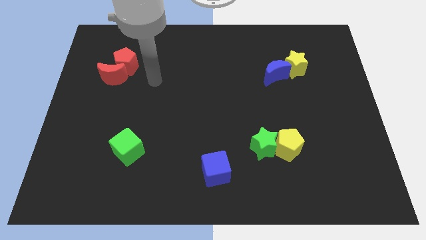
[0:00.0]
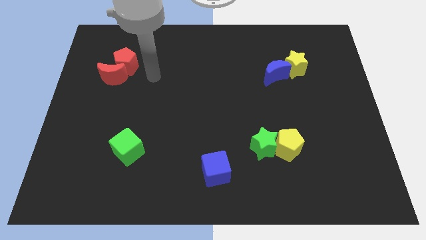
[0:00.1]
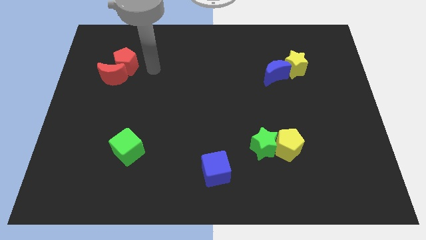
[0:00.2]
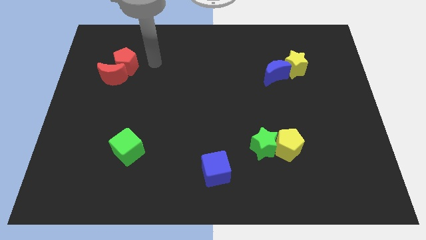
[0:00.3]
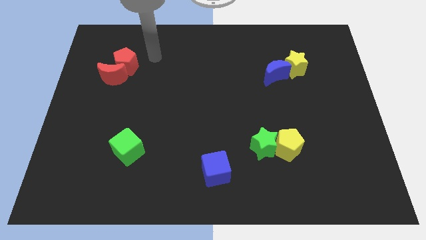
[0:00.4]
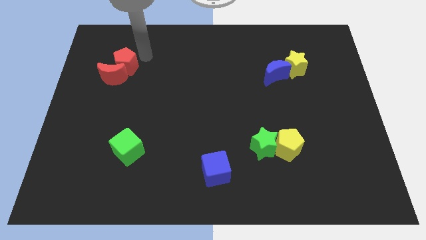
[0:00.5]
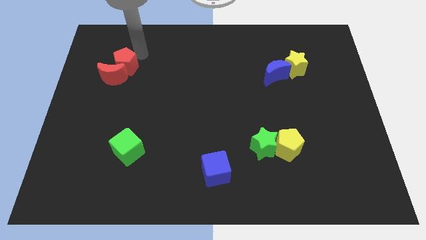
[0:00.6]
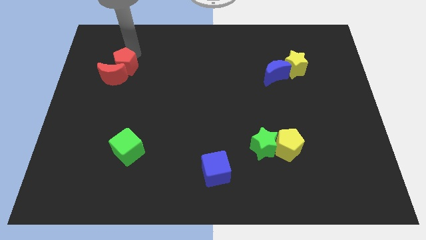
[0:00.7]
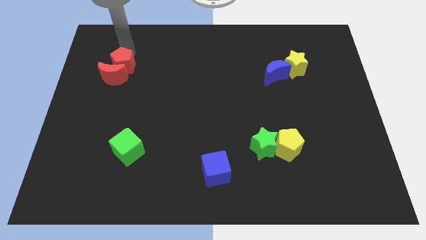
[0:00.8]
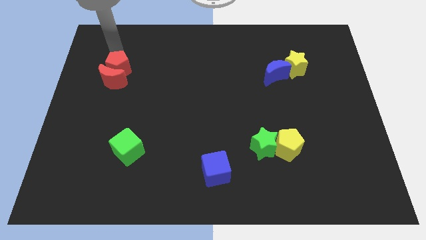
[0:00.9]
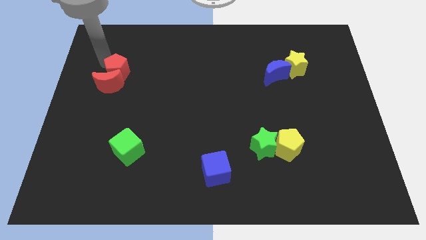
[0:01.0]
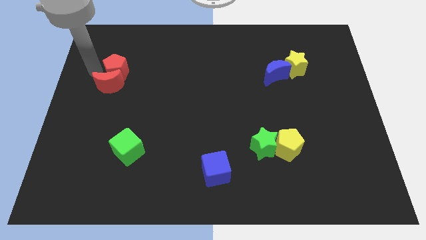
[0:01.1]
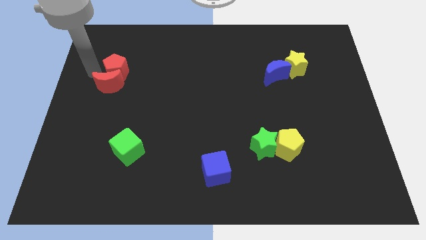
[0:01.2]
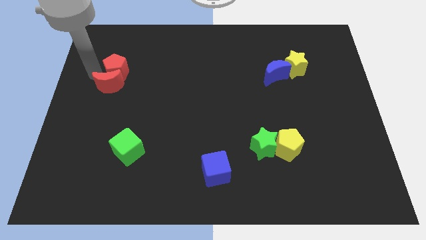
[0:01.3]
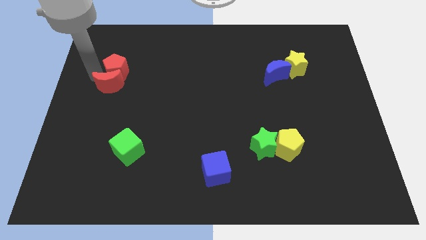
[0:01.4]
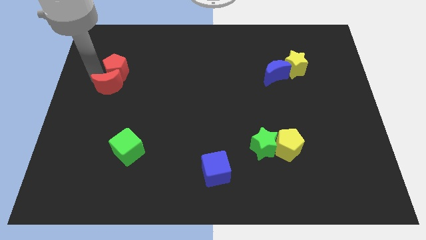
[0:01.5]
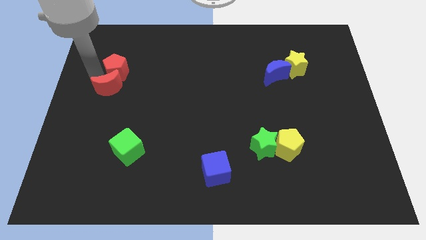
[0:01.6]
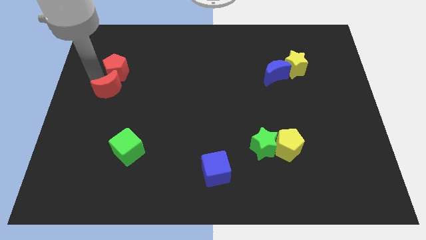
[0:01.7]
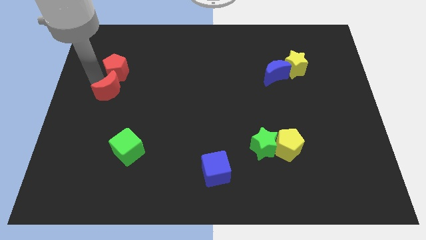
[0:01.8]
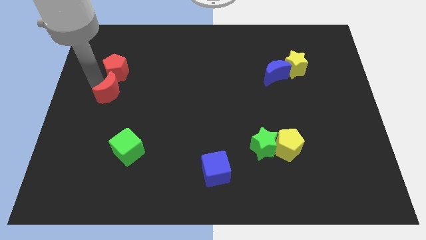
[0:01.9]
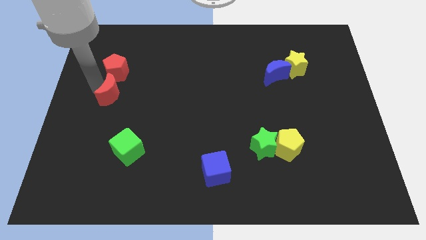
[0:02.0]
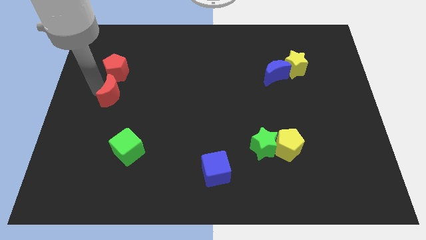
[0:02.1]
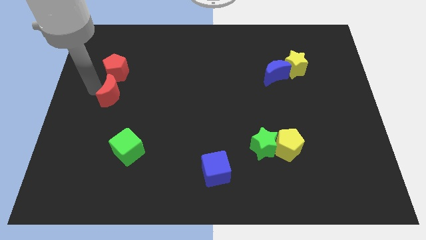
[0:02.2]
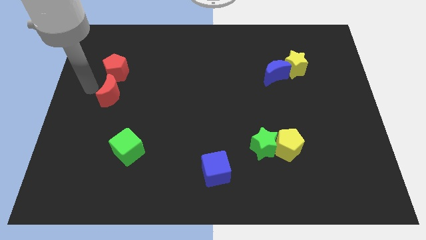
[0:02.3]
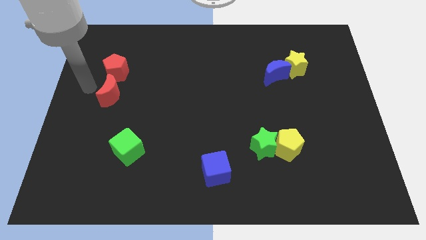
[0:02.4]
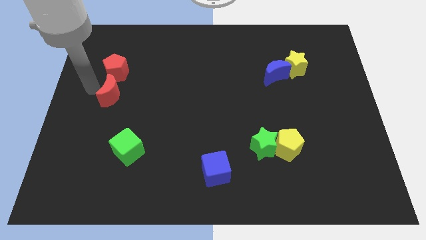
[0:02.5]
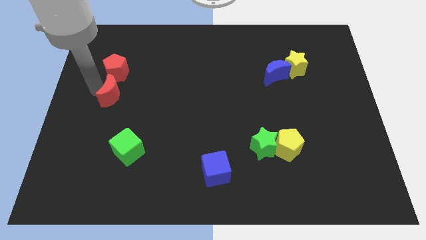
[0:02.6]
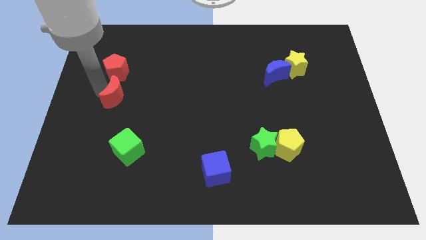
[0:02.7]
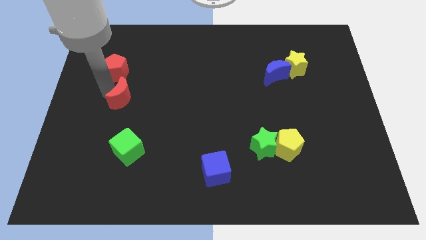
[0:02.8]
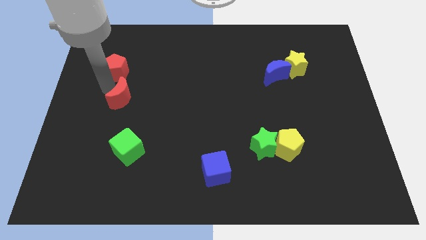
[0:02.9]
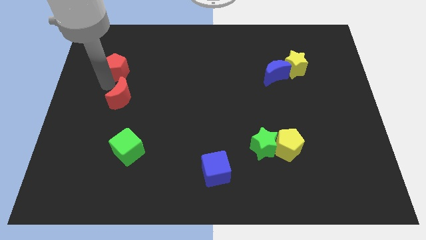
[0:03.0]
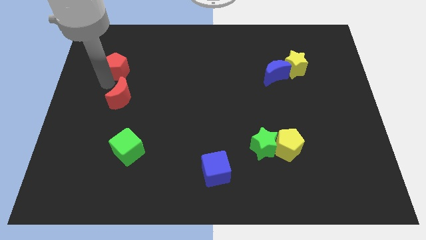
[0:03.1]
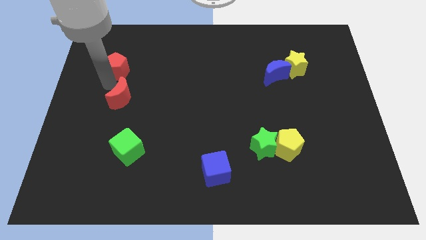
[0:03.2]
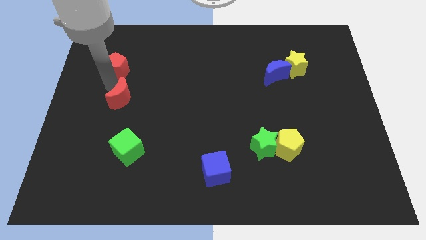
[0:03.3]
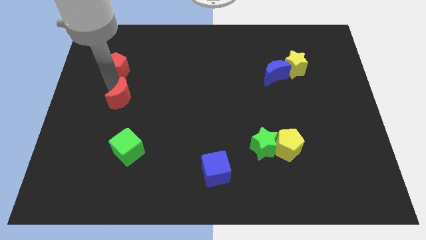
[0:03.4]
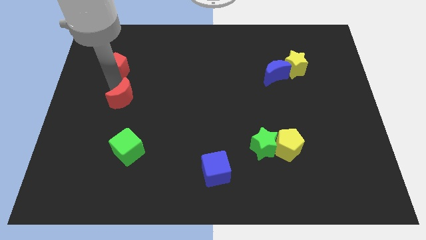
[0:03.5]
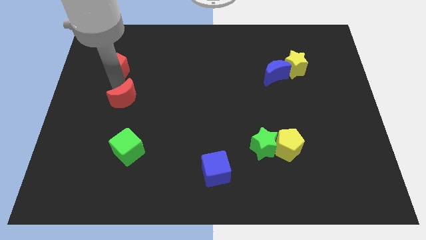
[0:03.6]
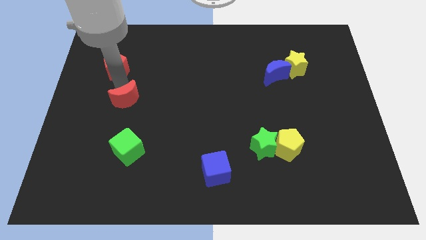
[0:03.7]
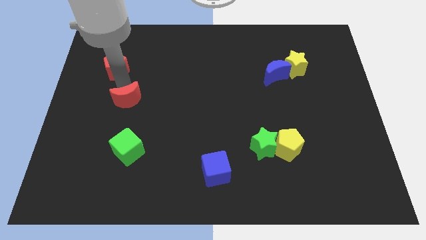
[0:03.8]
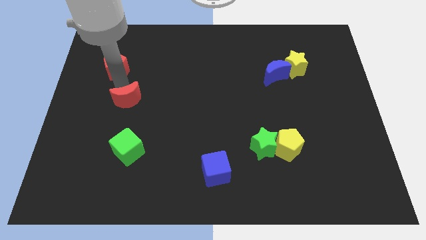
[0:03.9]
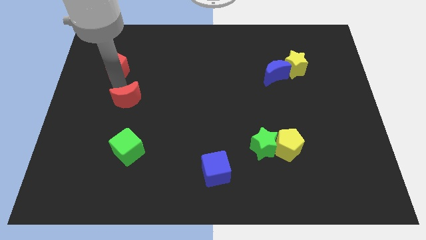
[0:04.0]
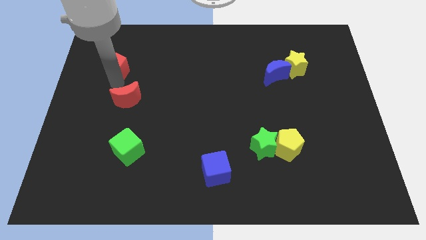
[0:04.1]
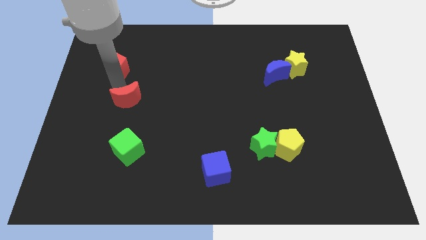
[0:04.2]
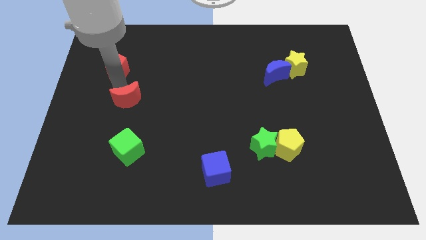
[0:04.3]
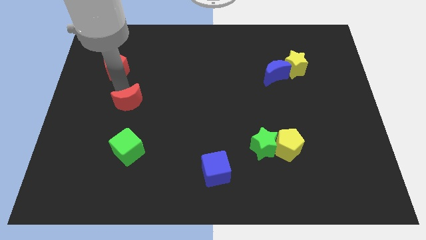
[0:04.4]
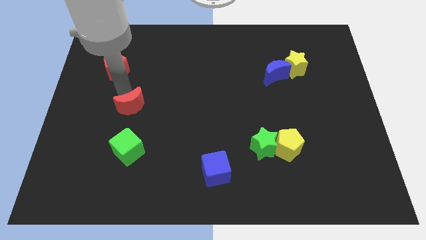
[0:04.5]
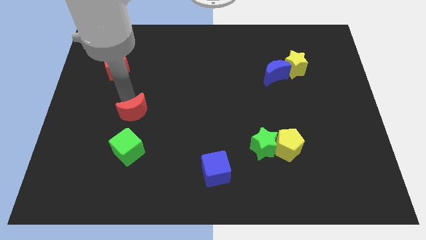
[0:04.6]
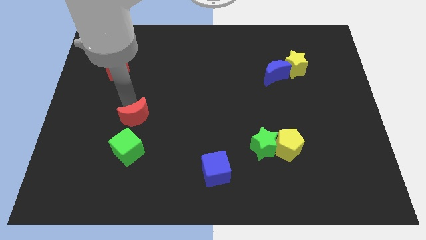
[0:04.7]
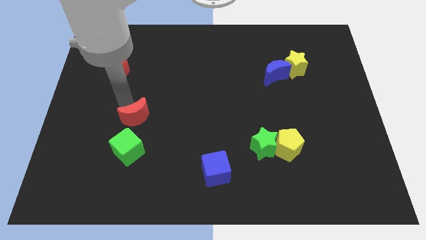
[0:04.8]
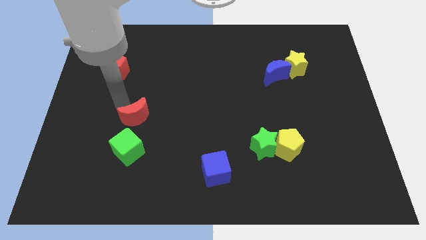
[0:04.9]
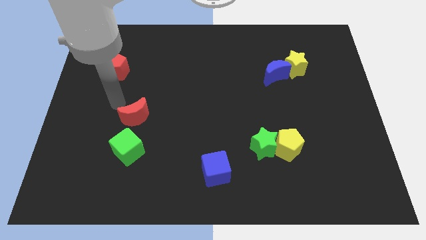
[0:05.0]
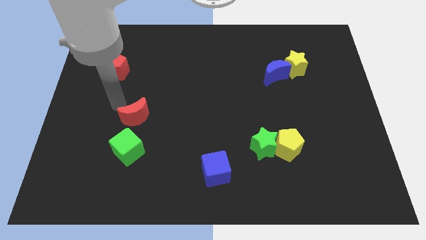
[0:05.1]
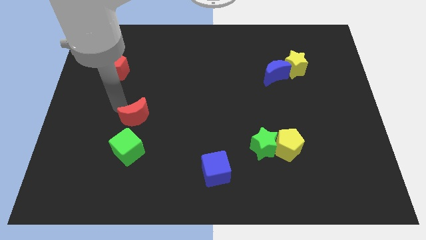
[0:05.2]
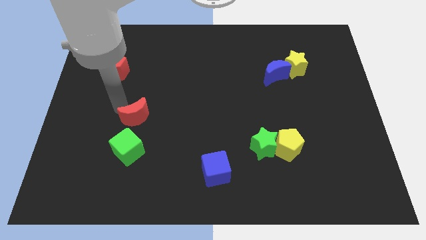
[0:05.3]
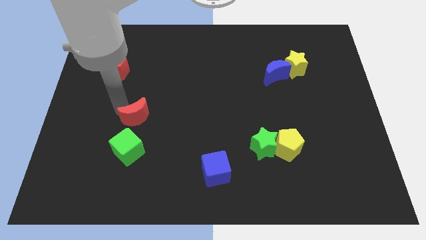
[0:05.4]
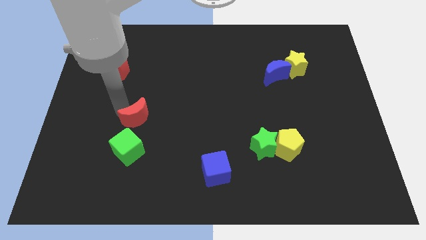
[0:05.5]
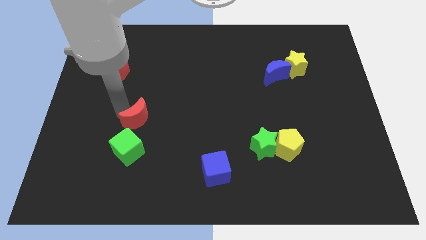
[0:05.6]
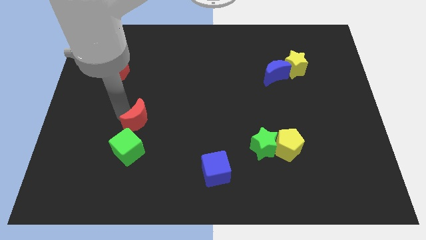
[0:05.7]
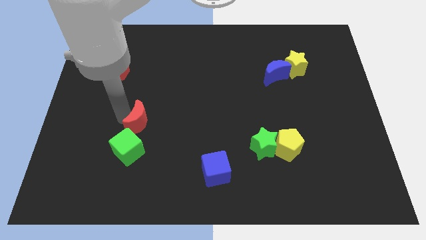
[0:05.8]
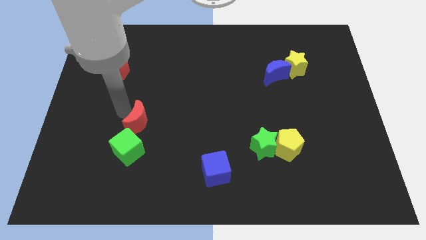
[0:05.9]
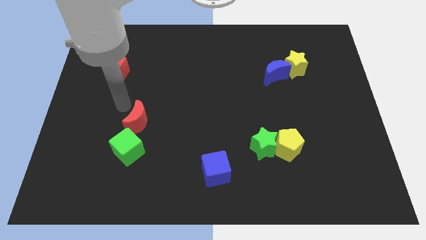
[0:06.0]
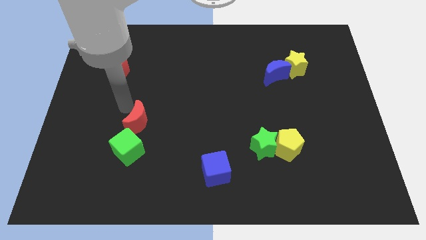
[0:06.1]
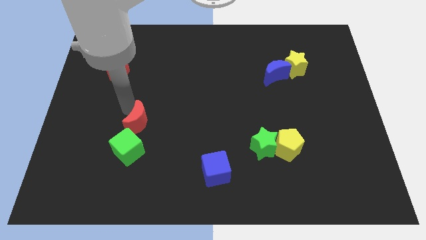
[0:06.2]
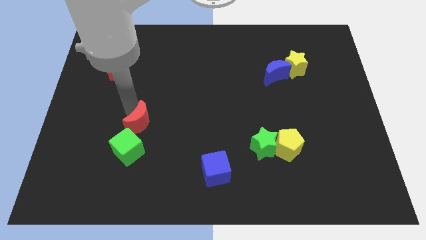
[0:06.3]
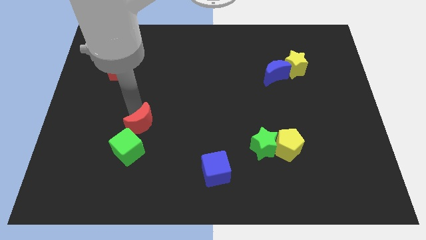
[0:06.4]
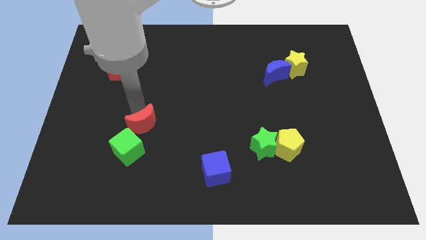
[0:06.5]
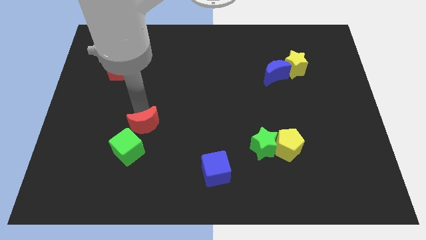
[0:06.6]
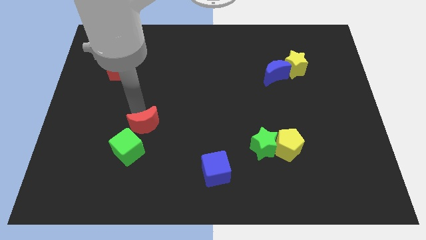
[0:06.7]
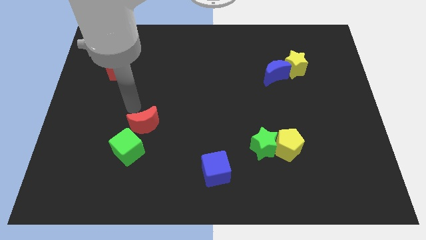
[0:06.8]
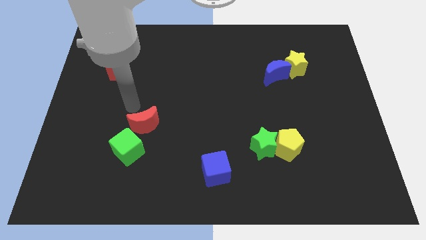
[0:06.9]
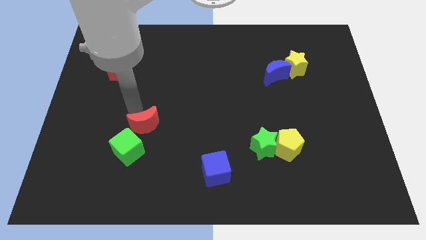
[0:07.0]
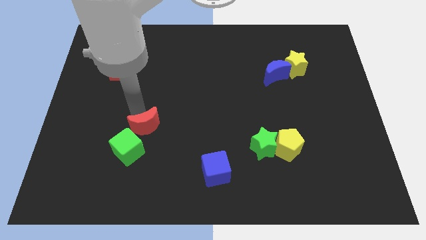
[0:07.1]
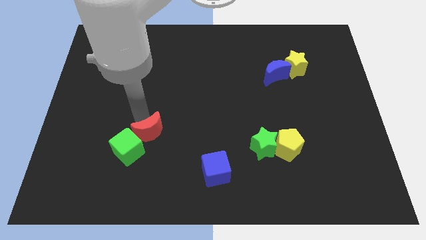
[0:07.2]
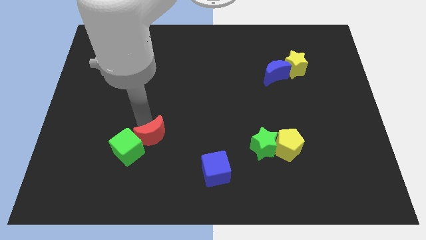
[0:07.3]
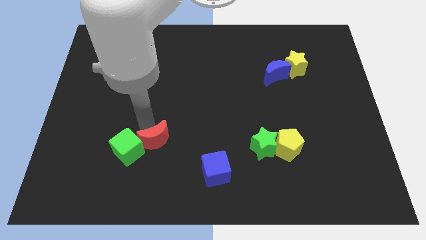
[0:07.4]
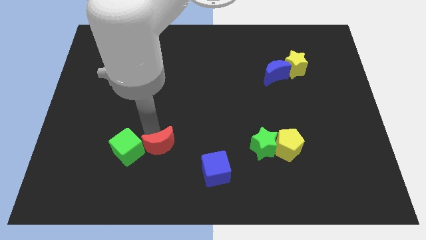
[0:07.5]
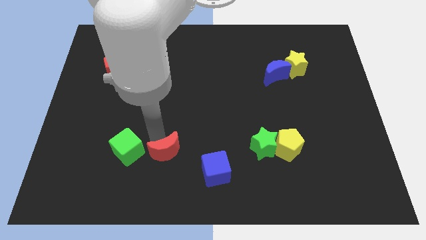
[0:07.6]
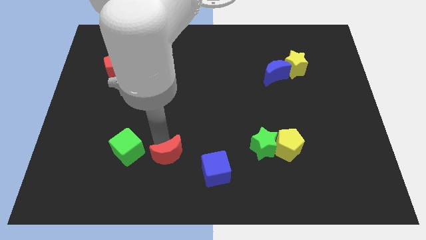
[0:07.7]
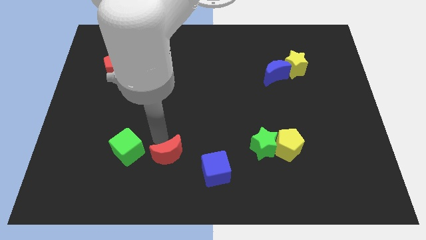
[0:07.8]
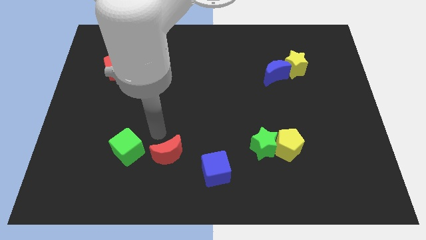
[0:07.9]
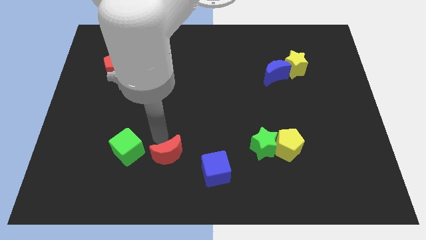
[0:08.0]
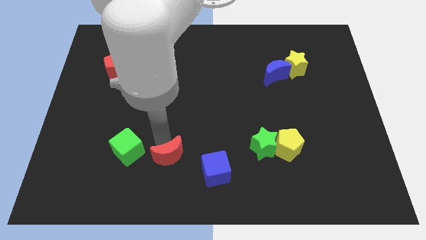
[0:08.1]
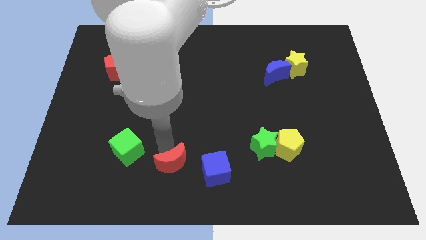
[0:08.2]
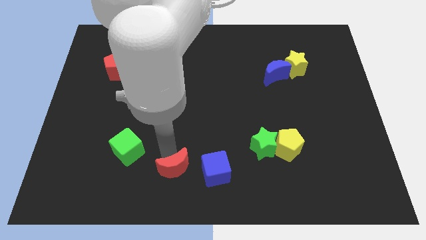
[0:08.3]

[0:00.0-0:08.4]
put the red moon to the bottom
